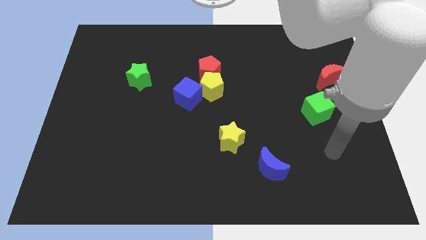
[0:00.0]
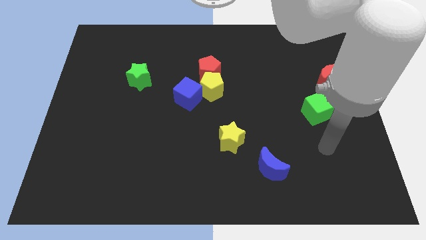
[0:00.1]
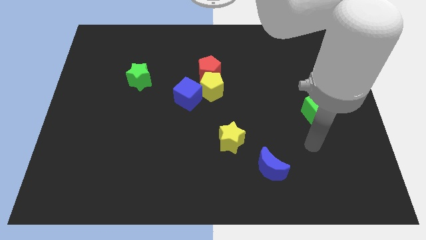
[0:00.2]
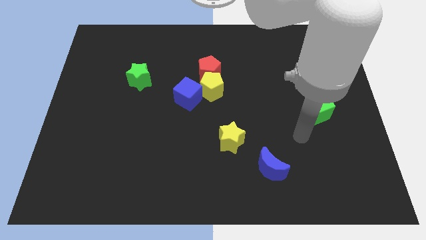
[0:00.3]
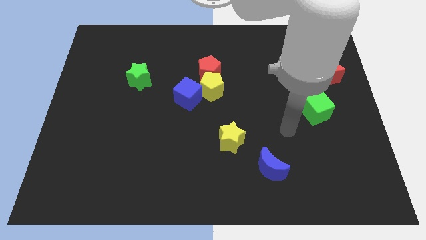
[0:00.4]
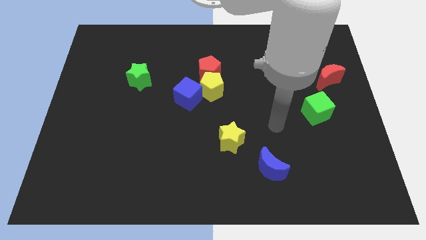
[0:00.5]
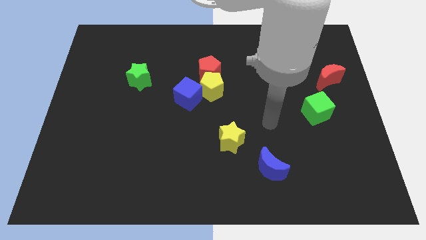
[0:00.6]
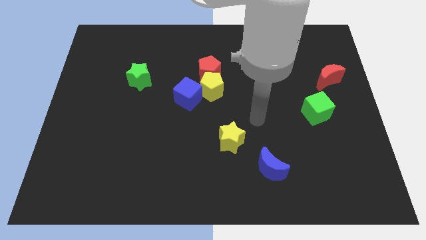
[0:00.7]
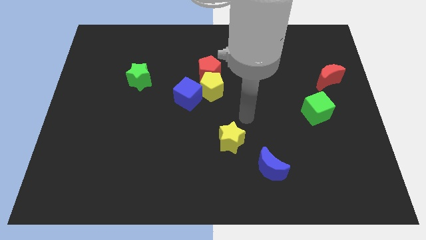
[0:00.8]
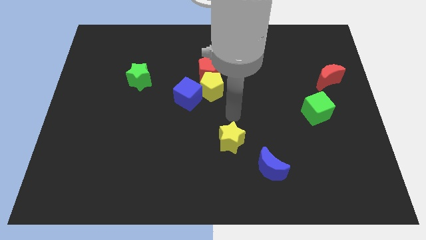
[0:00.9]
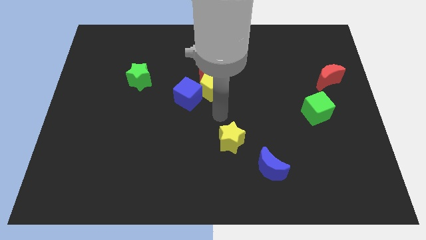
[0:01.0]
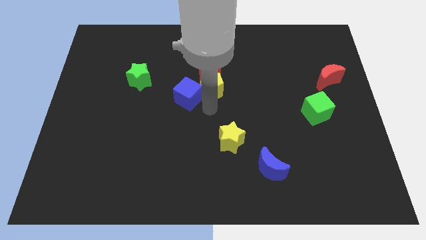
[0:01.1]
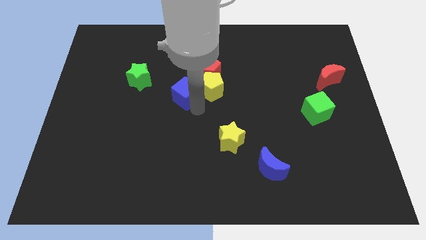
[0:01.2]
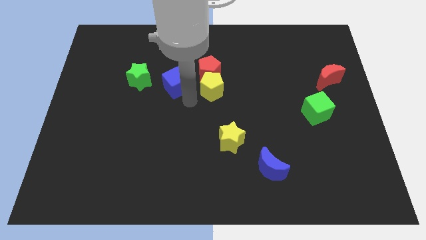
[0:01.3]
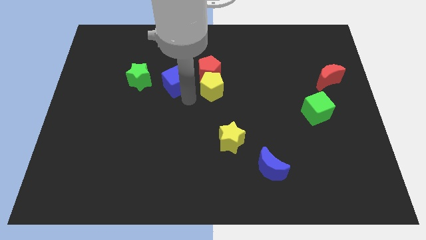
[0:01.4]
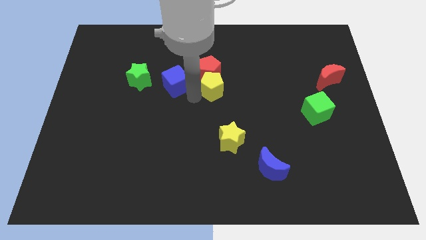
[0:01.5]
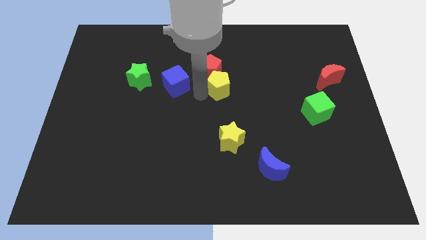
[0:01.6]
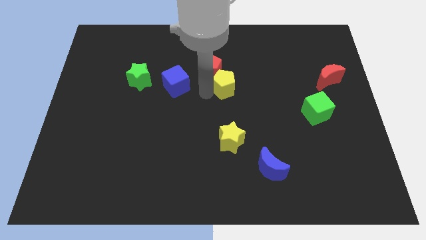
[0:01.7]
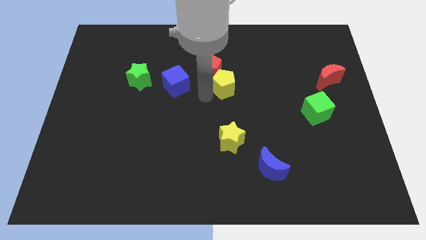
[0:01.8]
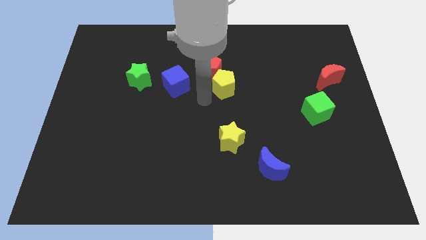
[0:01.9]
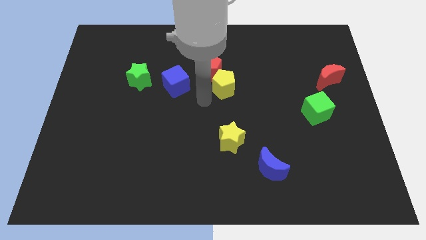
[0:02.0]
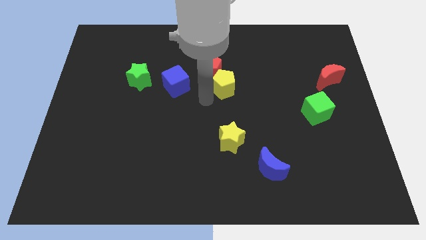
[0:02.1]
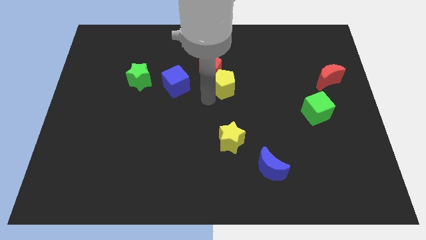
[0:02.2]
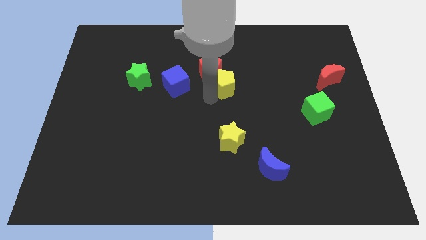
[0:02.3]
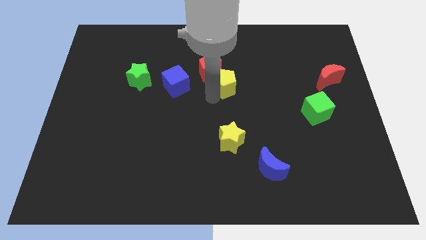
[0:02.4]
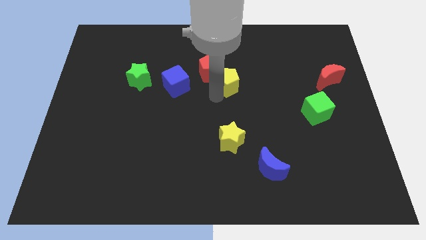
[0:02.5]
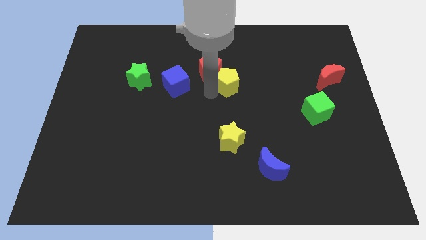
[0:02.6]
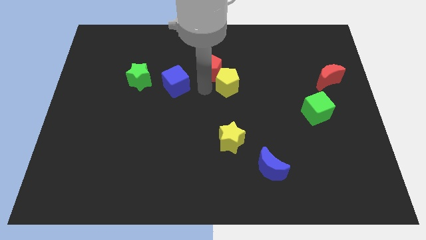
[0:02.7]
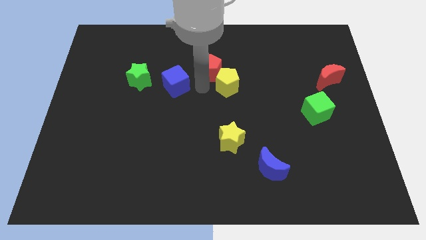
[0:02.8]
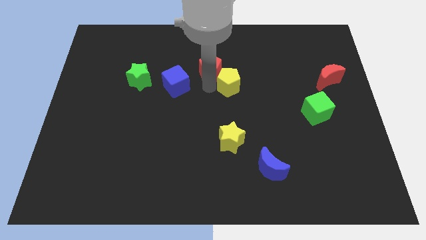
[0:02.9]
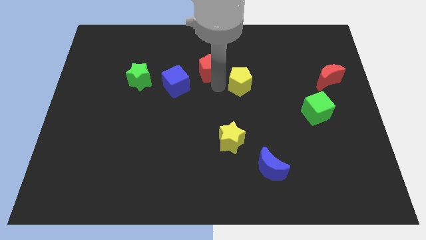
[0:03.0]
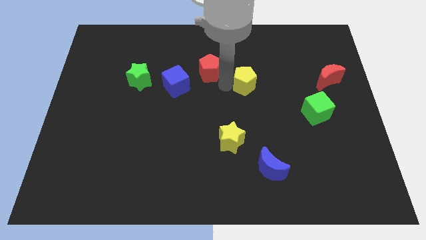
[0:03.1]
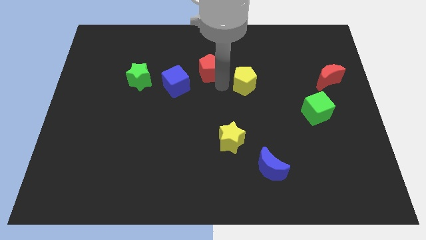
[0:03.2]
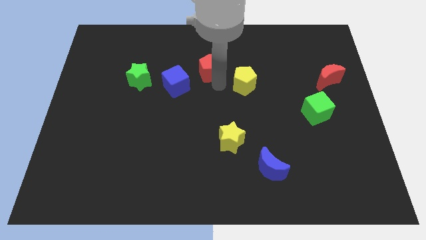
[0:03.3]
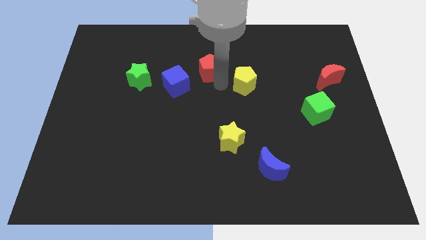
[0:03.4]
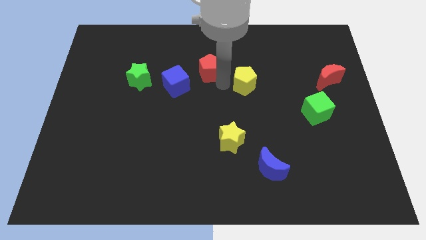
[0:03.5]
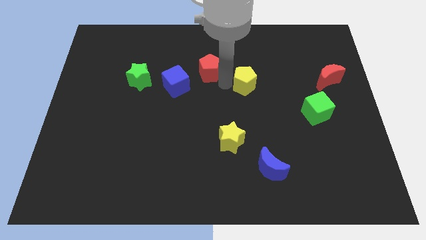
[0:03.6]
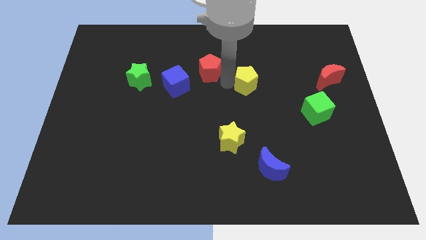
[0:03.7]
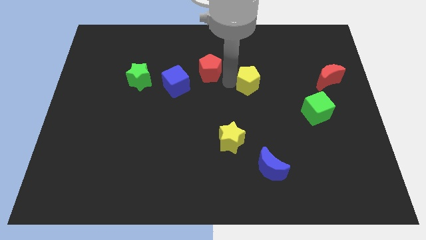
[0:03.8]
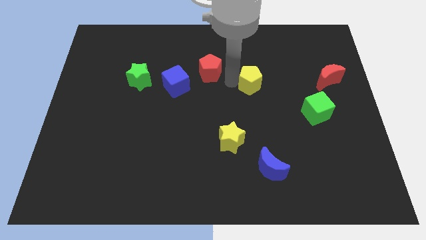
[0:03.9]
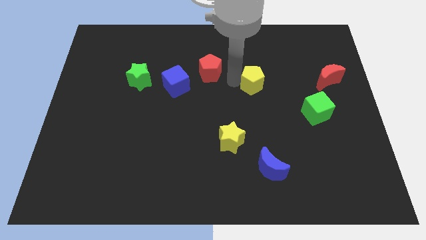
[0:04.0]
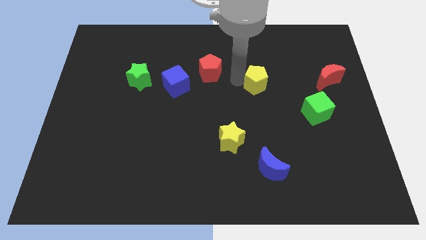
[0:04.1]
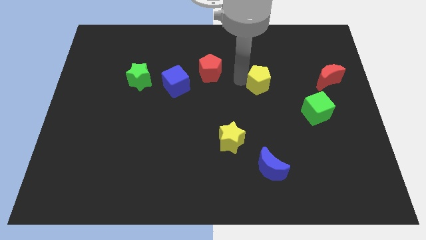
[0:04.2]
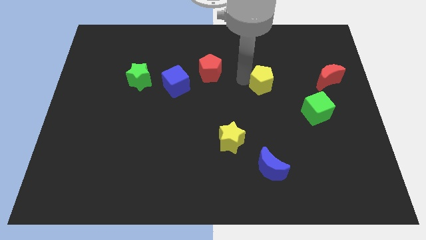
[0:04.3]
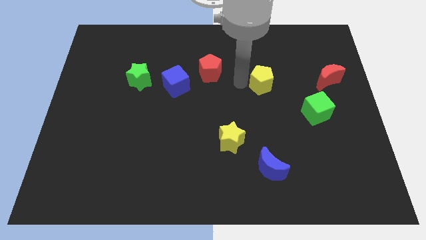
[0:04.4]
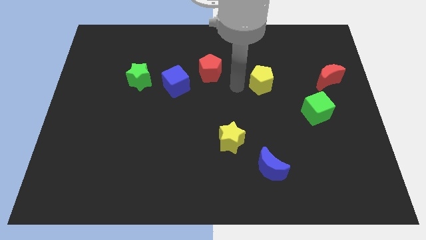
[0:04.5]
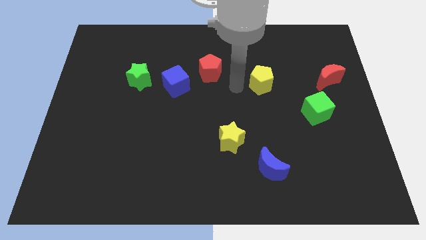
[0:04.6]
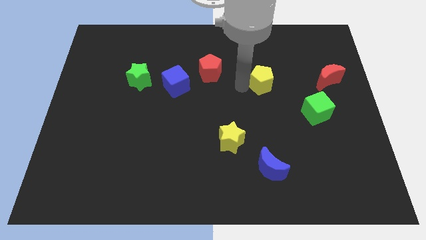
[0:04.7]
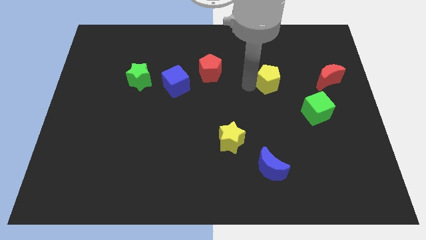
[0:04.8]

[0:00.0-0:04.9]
put the yellow pentagon to the left of the red moon

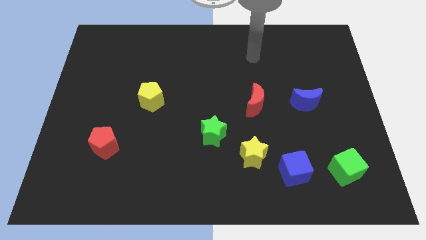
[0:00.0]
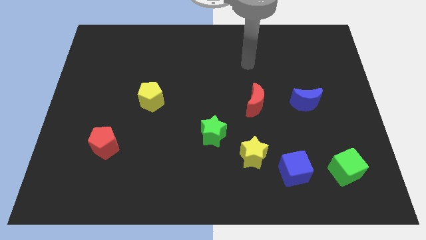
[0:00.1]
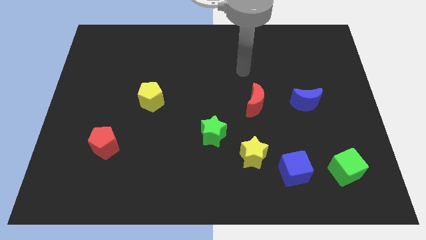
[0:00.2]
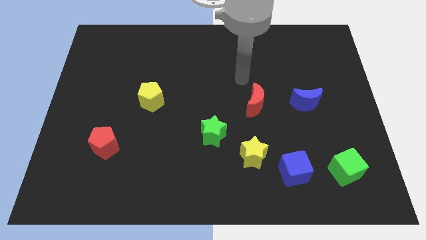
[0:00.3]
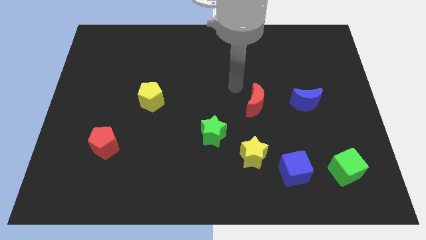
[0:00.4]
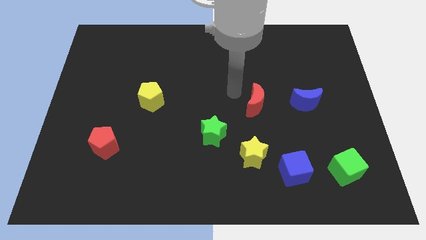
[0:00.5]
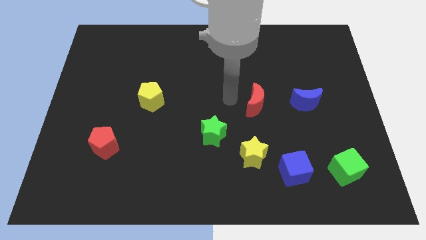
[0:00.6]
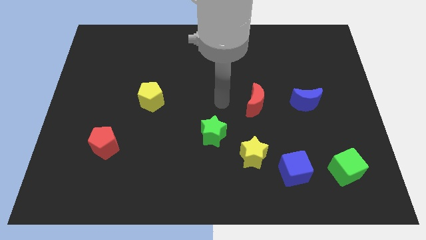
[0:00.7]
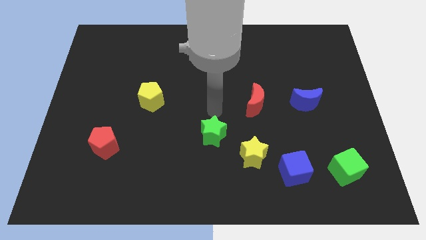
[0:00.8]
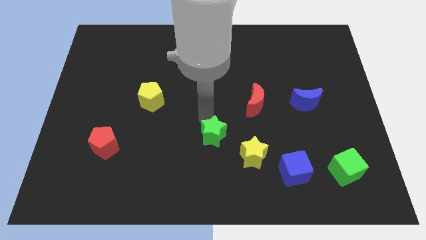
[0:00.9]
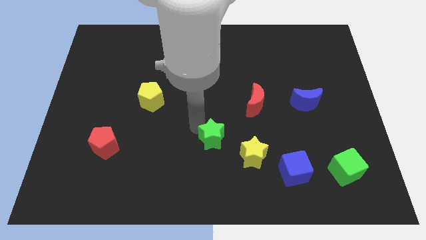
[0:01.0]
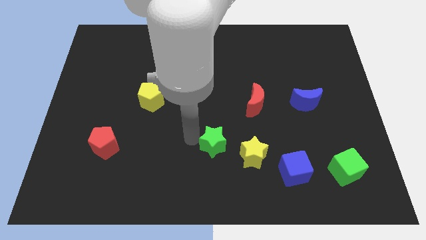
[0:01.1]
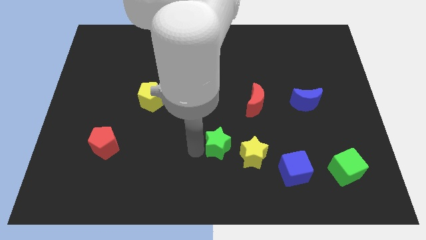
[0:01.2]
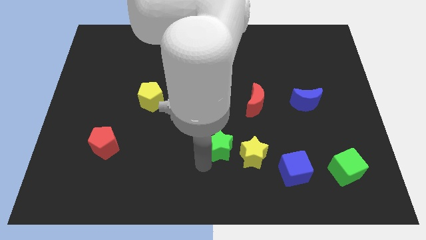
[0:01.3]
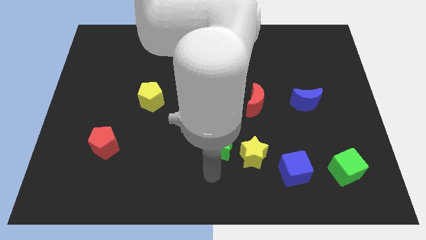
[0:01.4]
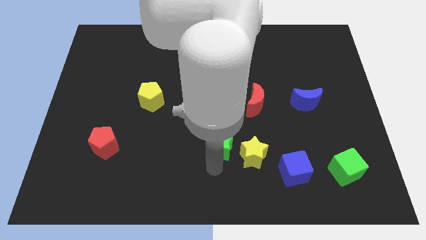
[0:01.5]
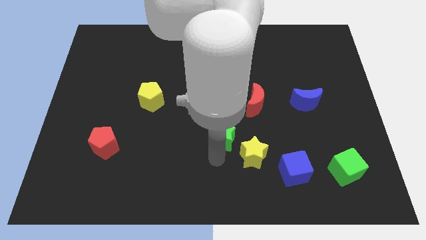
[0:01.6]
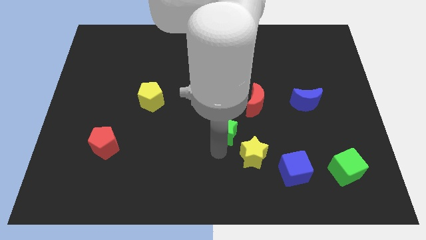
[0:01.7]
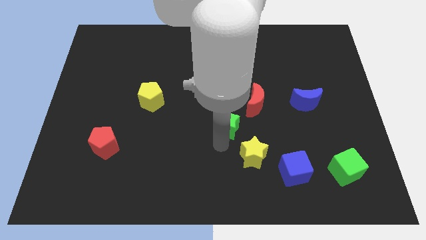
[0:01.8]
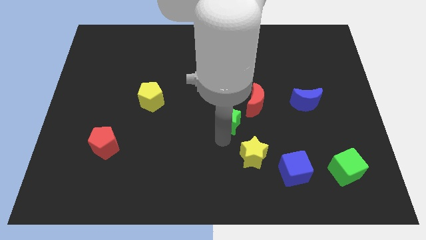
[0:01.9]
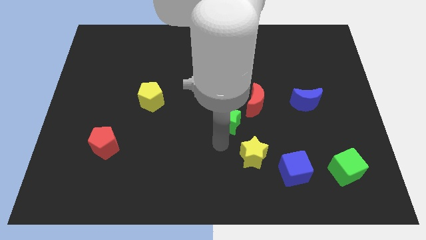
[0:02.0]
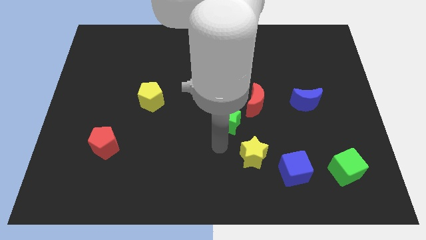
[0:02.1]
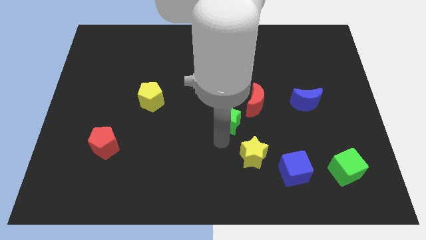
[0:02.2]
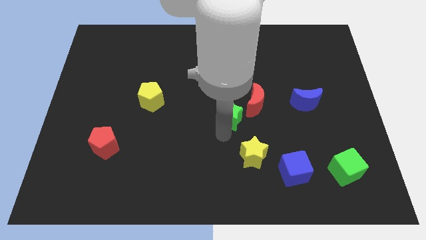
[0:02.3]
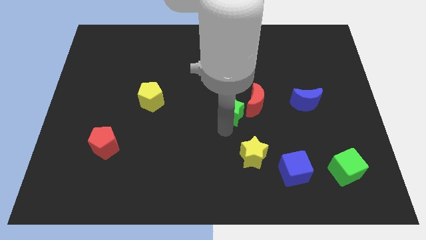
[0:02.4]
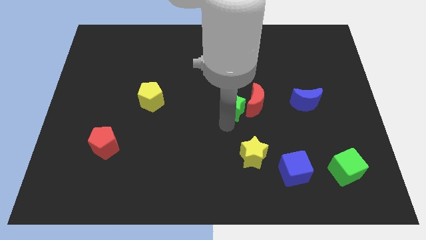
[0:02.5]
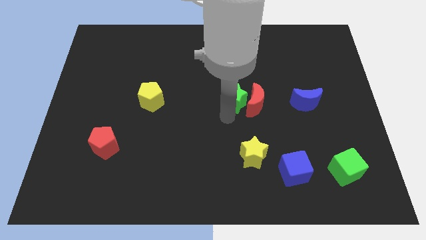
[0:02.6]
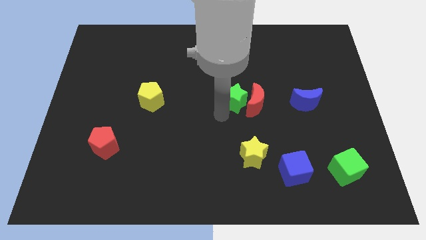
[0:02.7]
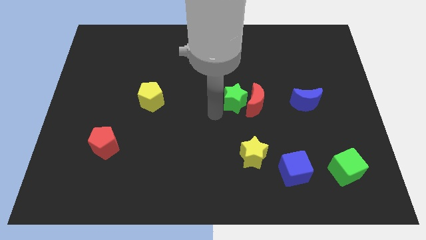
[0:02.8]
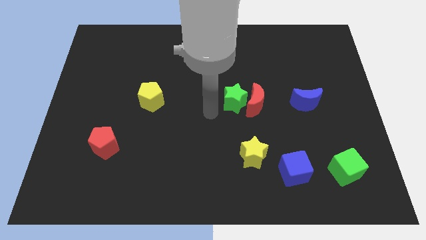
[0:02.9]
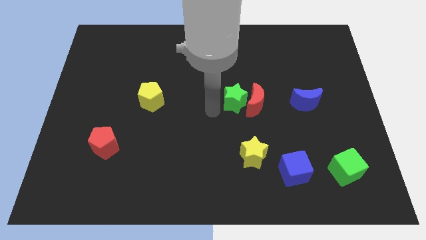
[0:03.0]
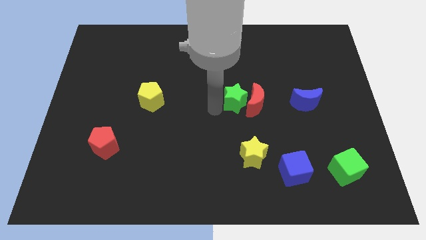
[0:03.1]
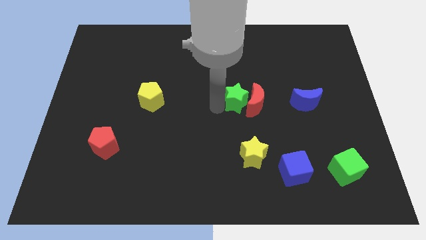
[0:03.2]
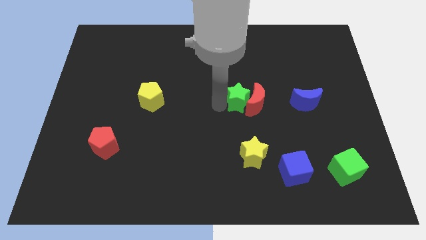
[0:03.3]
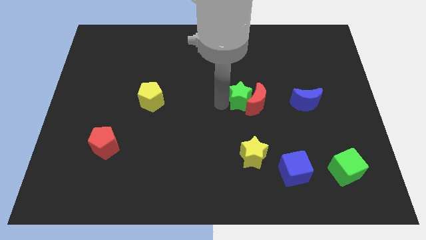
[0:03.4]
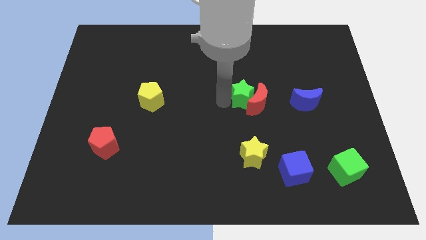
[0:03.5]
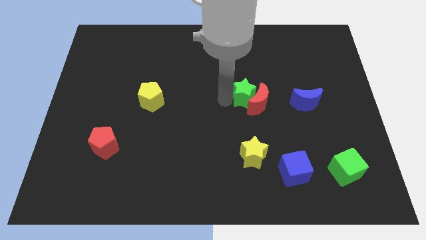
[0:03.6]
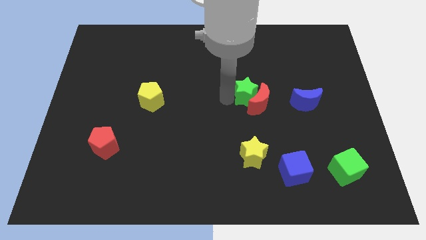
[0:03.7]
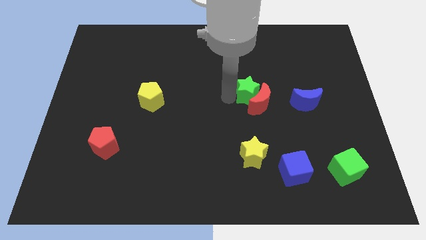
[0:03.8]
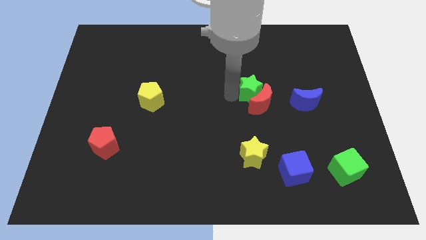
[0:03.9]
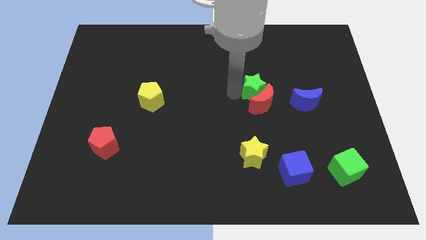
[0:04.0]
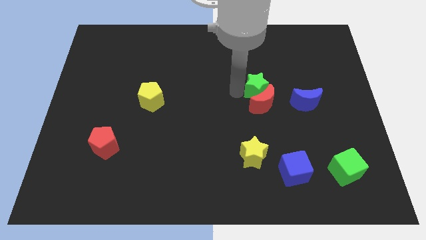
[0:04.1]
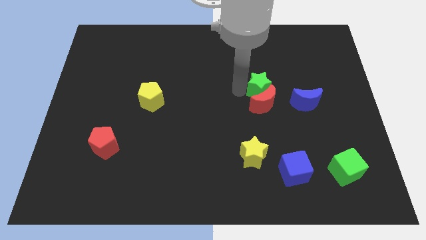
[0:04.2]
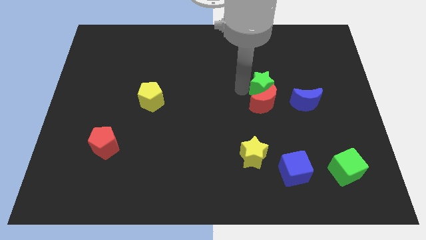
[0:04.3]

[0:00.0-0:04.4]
put the green star diagonally up and to the left of the blue moon
